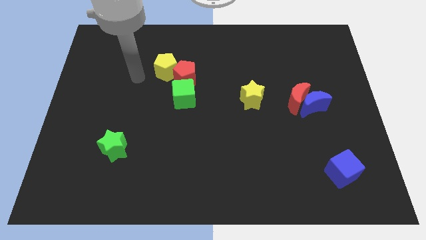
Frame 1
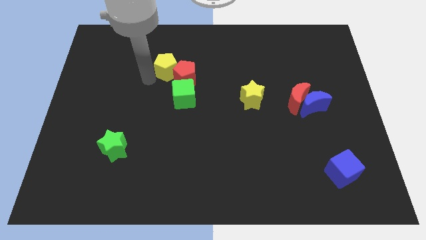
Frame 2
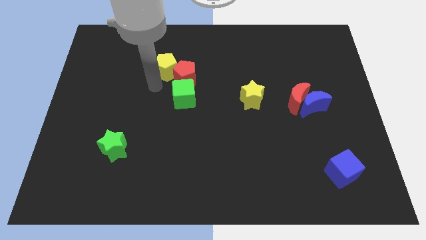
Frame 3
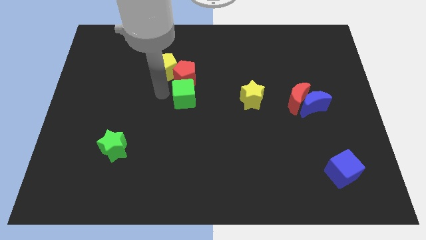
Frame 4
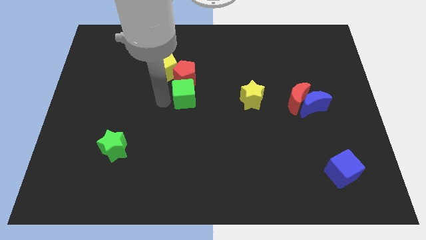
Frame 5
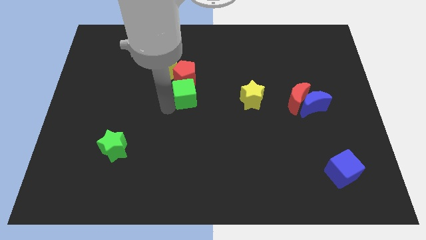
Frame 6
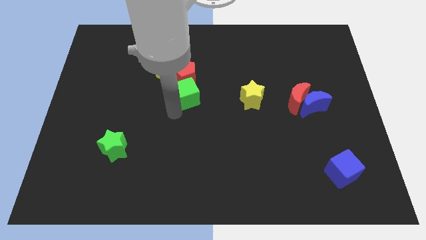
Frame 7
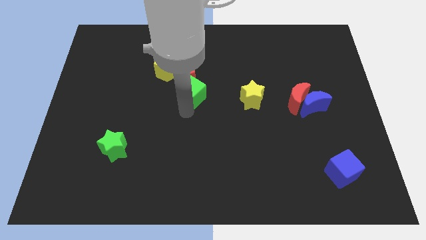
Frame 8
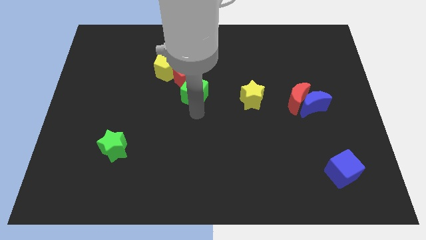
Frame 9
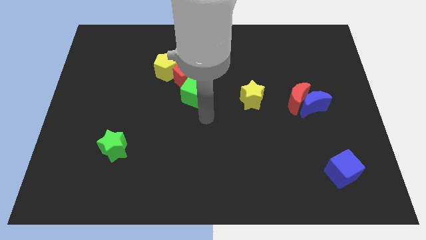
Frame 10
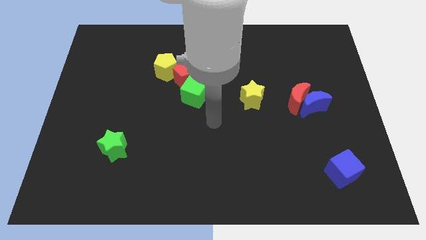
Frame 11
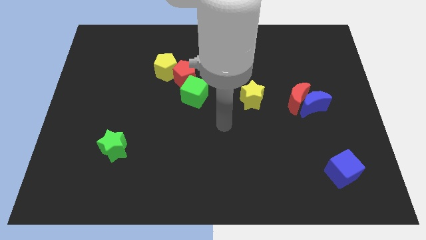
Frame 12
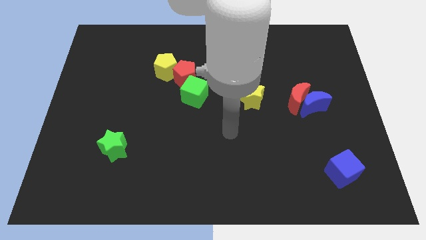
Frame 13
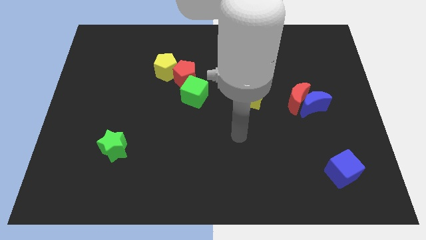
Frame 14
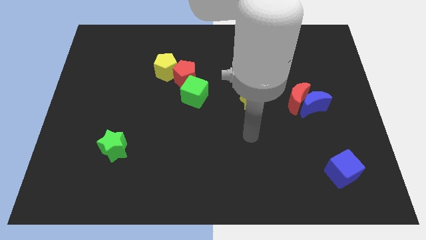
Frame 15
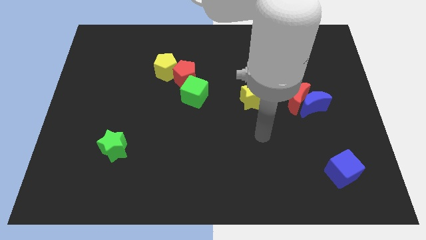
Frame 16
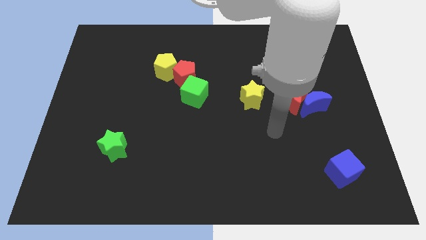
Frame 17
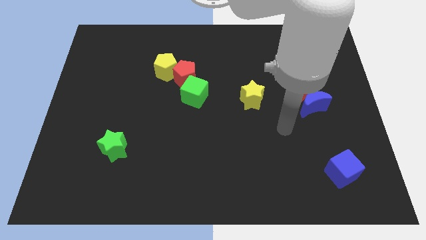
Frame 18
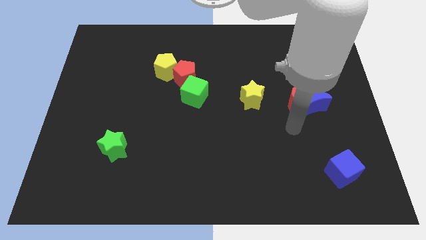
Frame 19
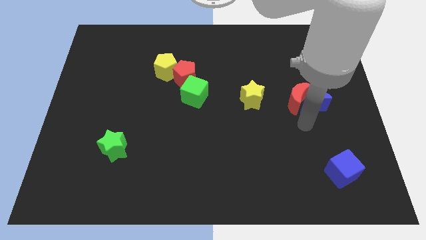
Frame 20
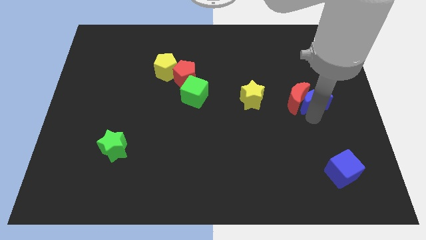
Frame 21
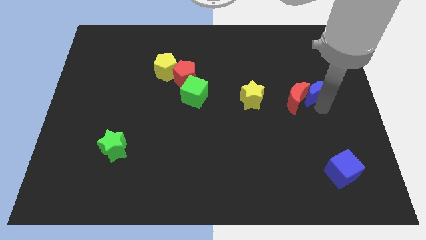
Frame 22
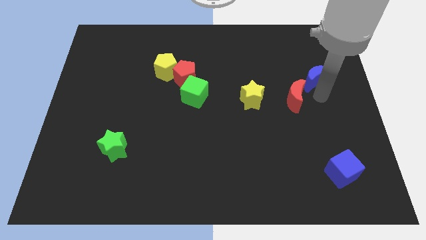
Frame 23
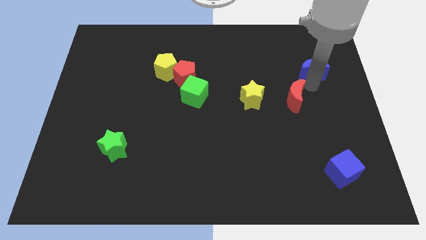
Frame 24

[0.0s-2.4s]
pull the red moon apart from the blue moon

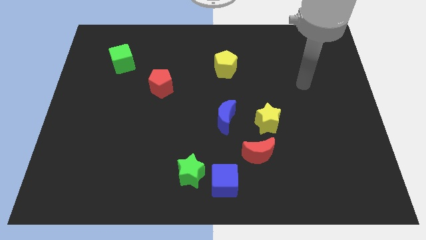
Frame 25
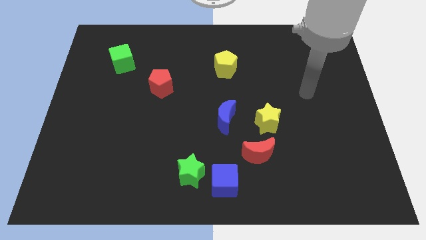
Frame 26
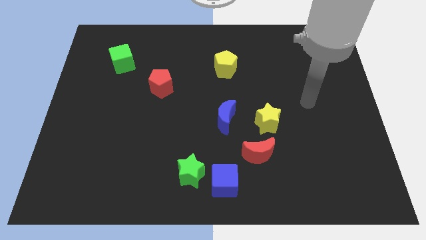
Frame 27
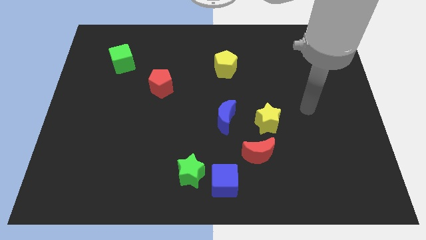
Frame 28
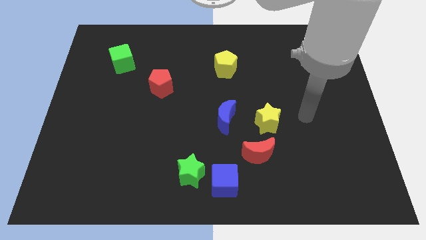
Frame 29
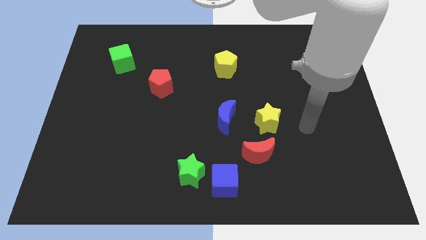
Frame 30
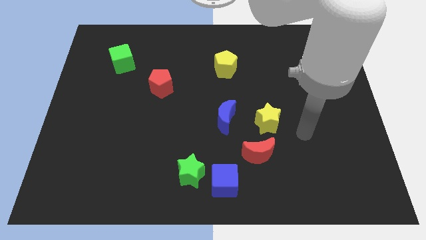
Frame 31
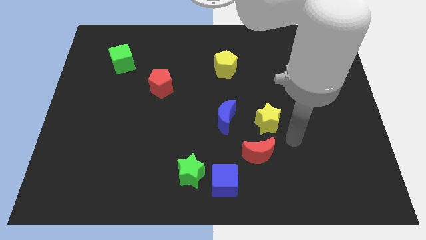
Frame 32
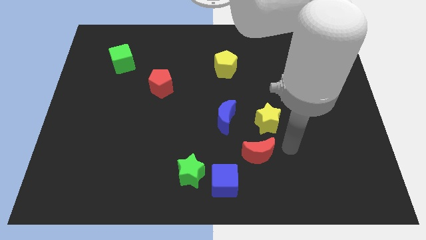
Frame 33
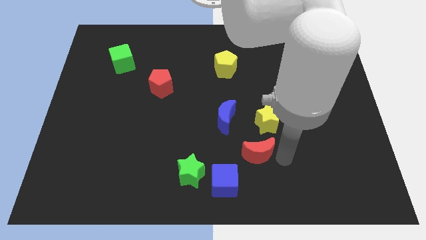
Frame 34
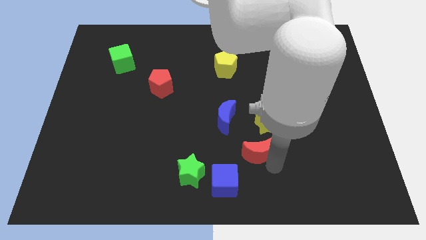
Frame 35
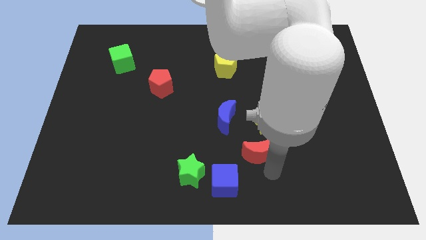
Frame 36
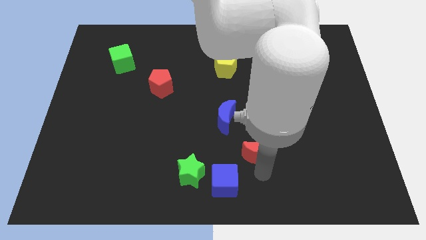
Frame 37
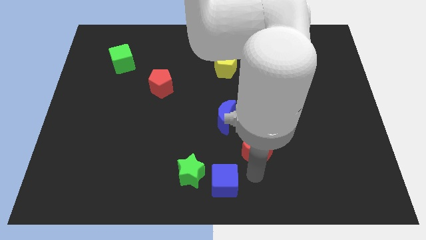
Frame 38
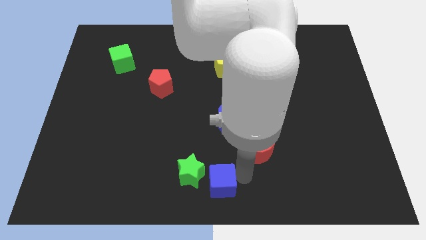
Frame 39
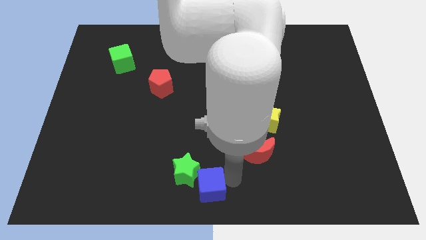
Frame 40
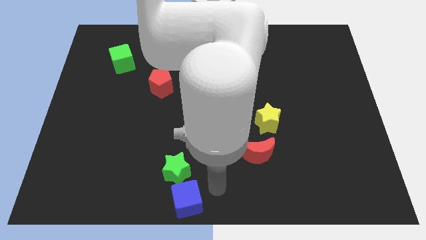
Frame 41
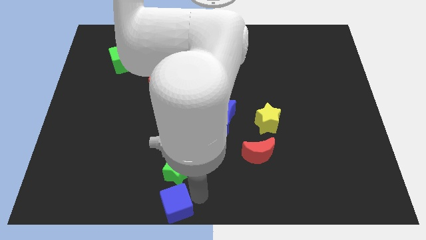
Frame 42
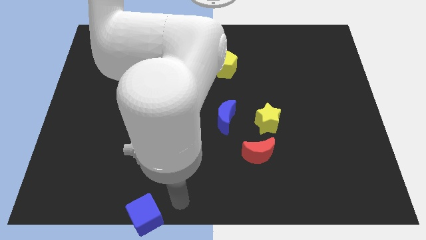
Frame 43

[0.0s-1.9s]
move the green star away from the blue cube

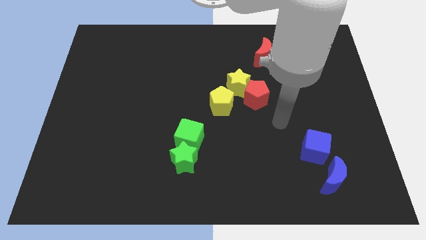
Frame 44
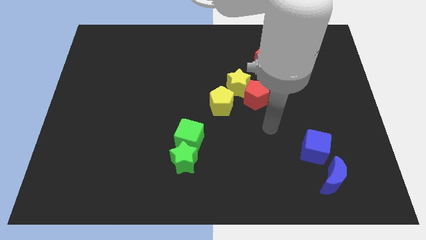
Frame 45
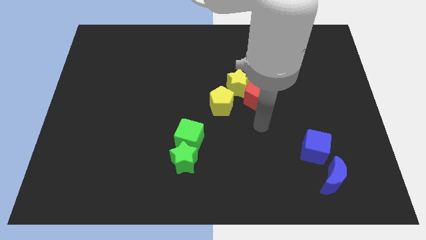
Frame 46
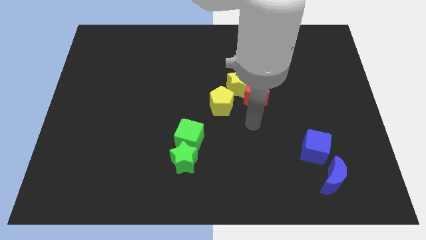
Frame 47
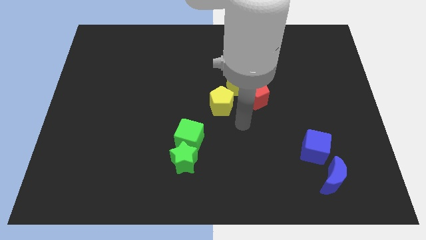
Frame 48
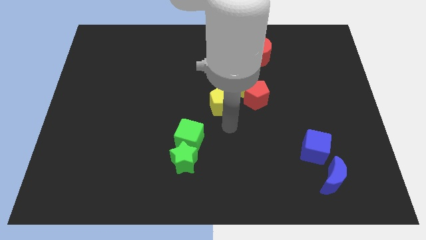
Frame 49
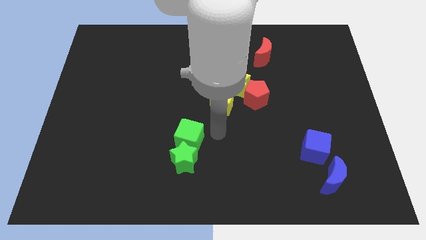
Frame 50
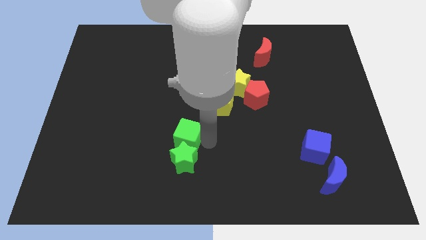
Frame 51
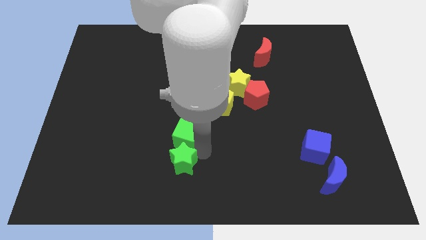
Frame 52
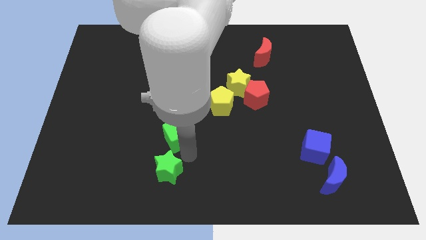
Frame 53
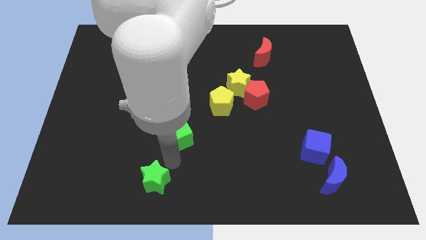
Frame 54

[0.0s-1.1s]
separate the green cube from the green star

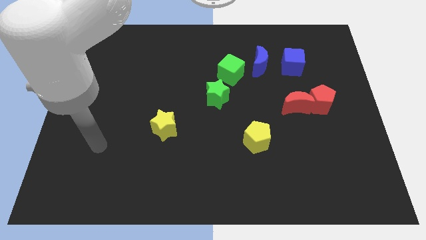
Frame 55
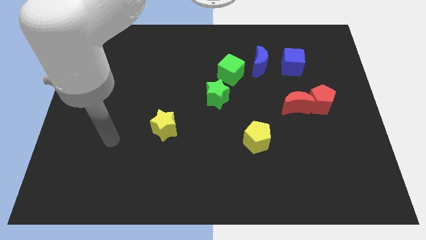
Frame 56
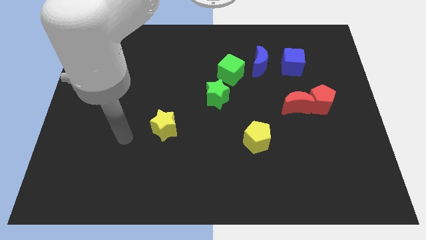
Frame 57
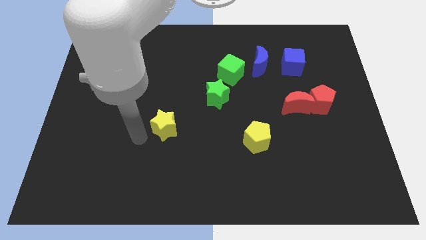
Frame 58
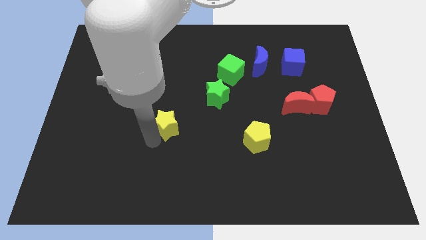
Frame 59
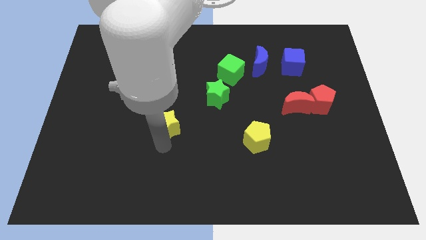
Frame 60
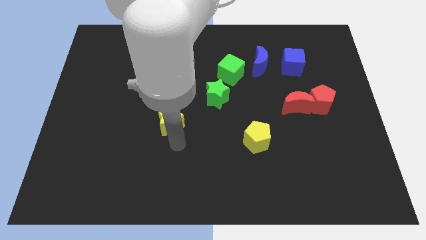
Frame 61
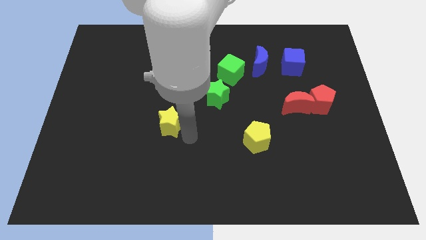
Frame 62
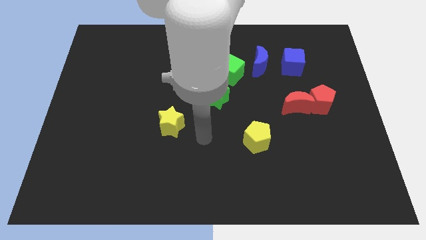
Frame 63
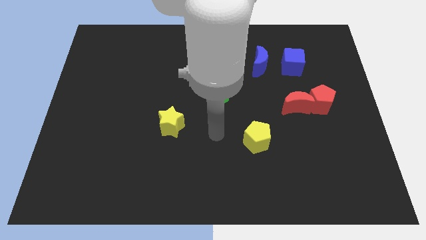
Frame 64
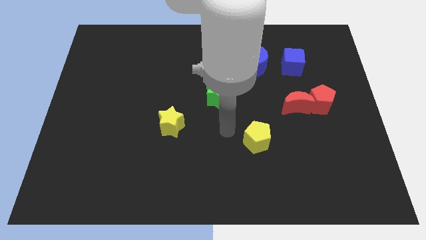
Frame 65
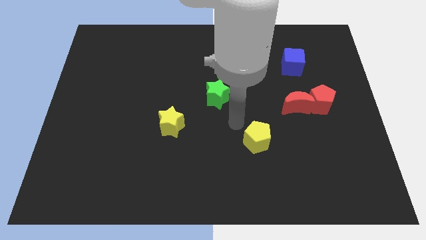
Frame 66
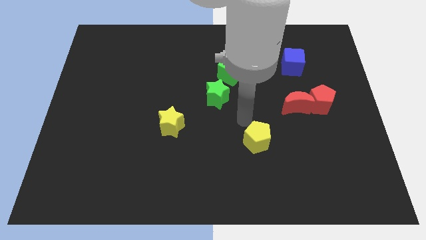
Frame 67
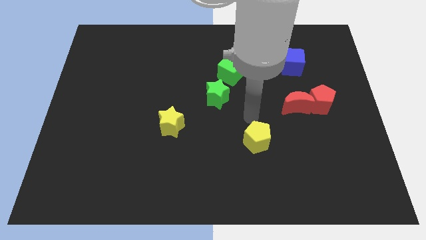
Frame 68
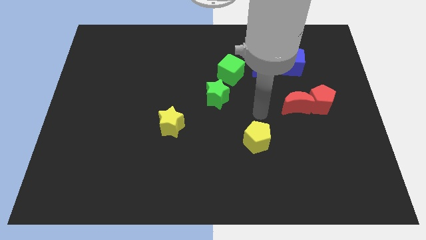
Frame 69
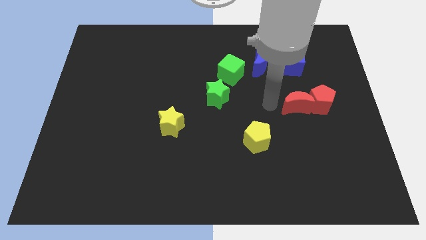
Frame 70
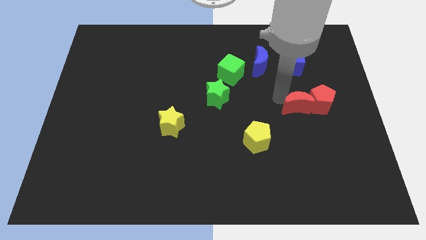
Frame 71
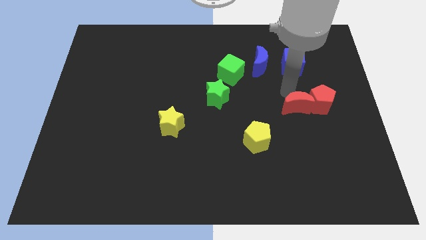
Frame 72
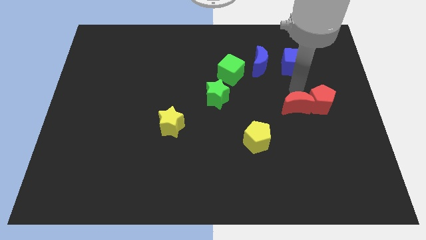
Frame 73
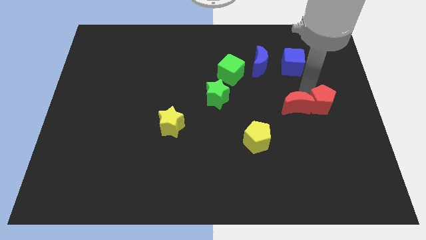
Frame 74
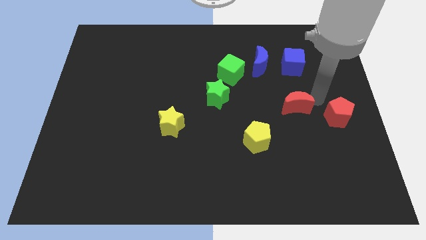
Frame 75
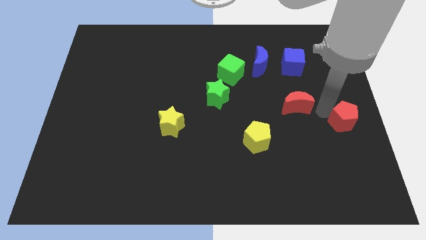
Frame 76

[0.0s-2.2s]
move the red moon away from the red pentagon

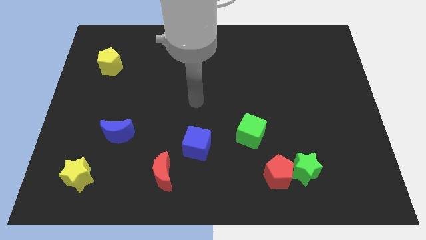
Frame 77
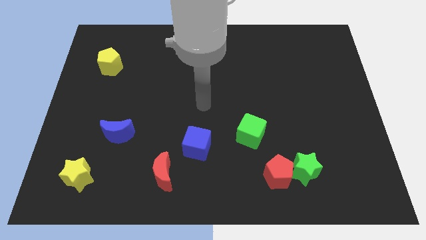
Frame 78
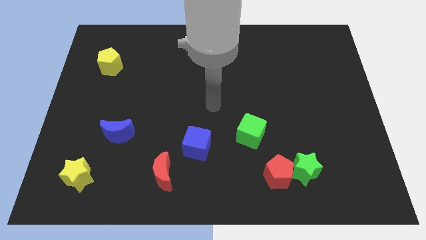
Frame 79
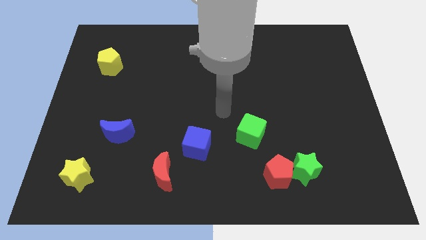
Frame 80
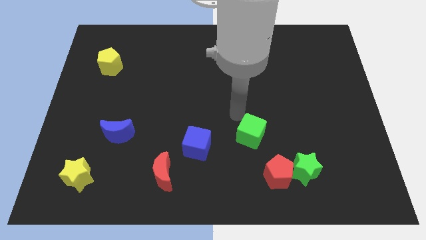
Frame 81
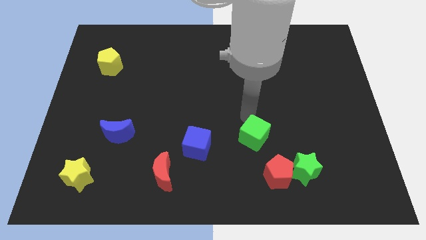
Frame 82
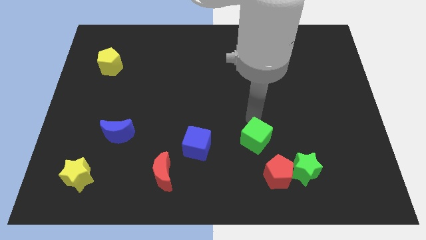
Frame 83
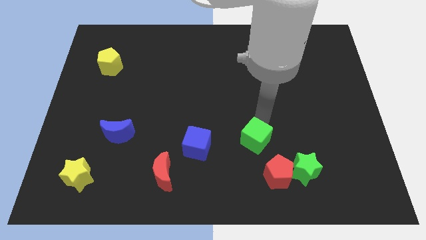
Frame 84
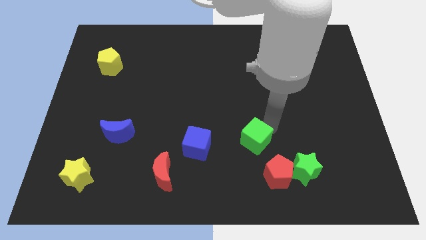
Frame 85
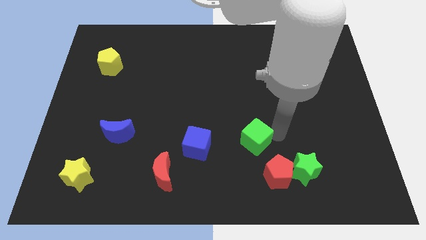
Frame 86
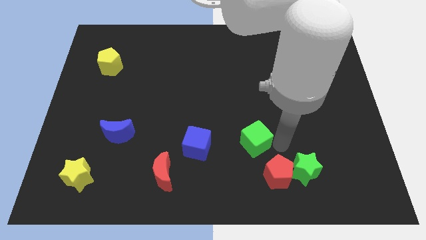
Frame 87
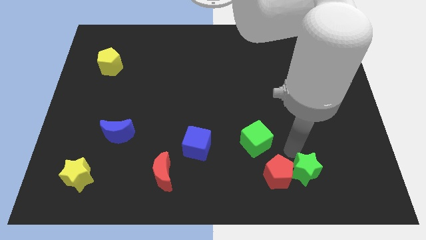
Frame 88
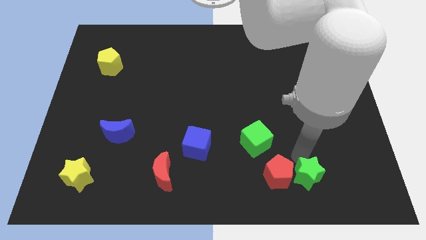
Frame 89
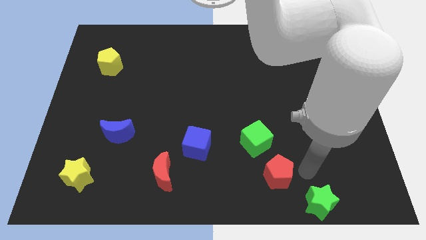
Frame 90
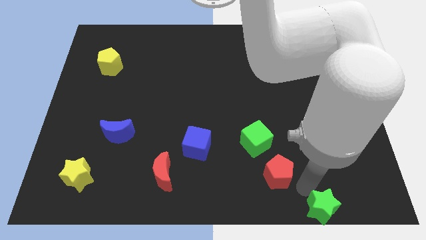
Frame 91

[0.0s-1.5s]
pull the red pentagon apart from the green star

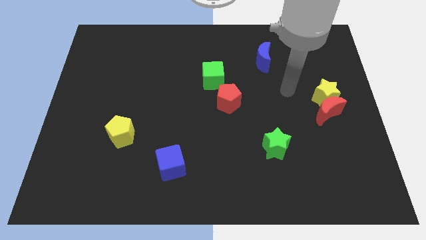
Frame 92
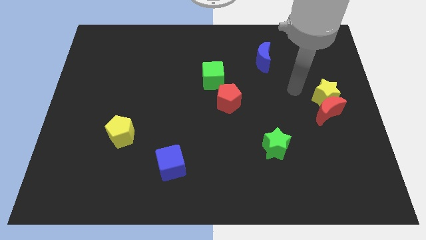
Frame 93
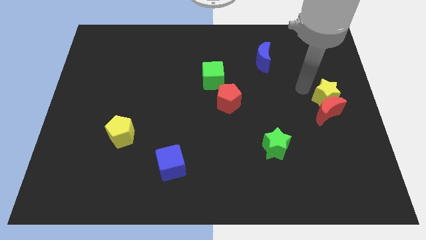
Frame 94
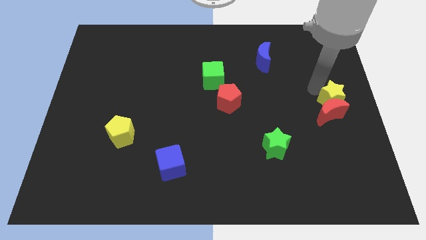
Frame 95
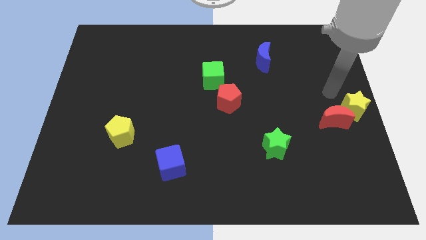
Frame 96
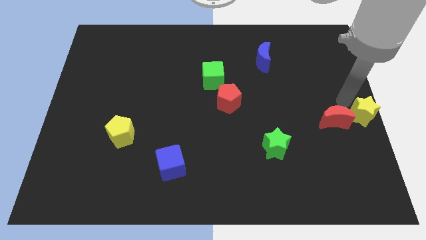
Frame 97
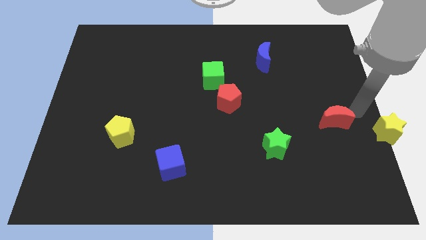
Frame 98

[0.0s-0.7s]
separate the red moon from the yellow star
